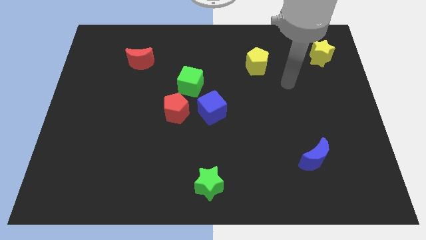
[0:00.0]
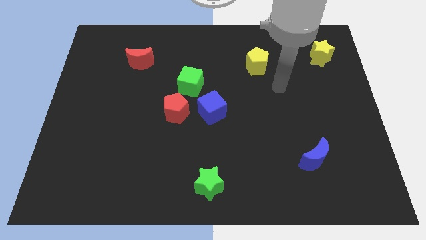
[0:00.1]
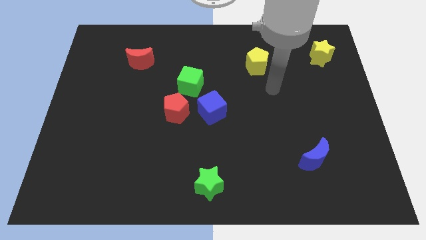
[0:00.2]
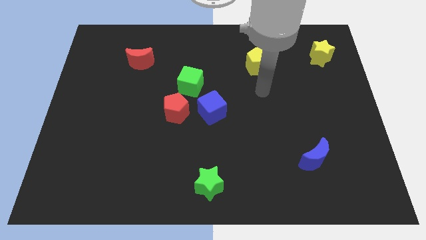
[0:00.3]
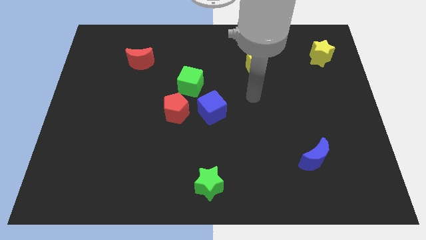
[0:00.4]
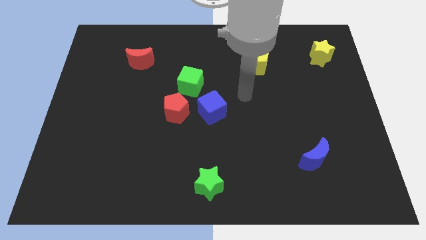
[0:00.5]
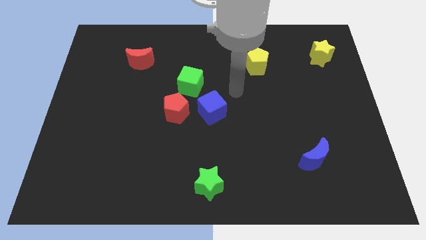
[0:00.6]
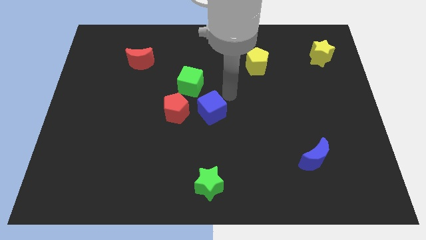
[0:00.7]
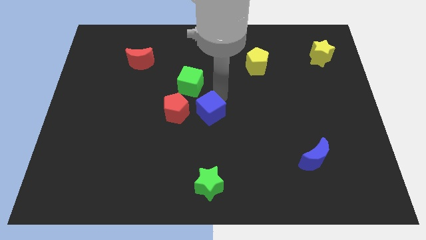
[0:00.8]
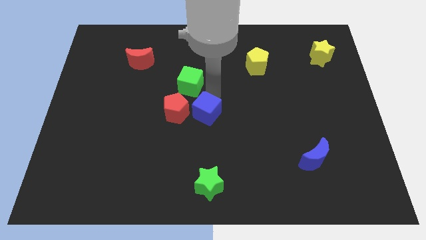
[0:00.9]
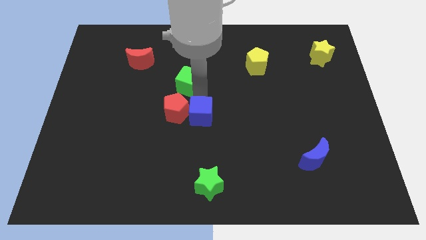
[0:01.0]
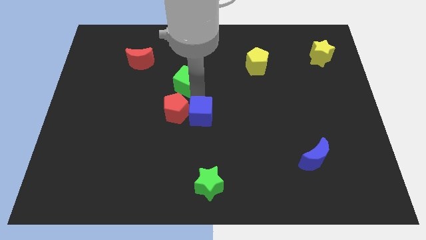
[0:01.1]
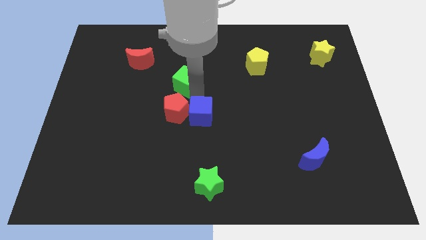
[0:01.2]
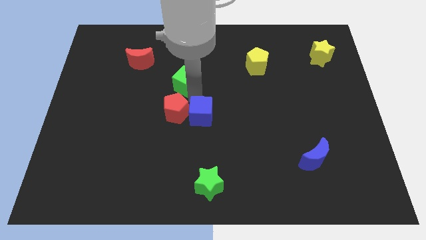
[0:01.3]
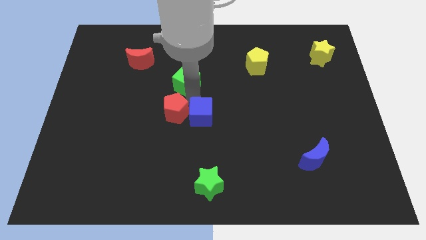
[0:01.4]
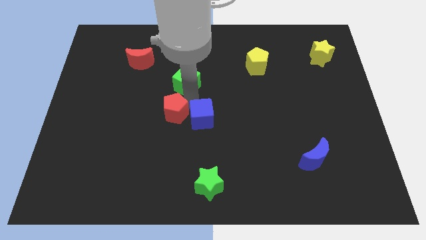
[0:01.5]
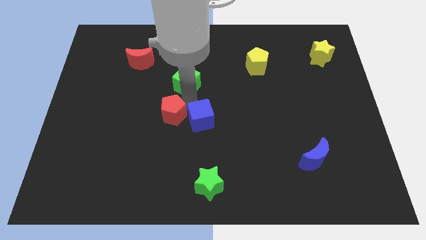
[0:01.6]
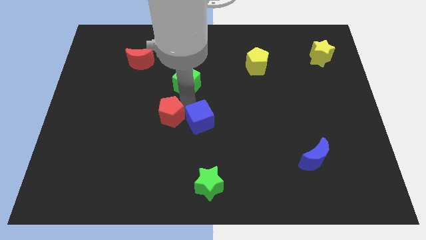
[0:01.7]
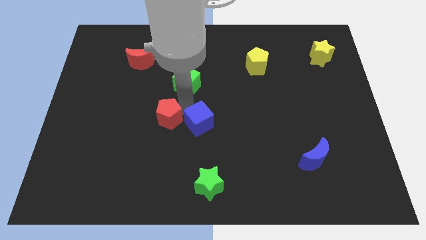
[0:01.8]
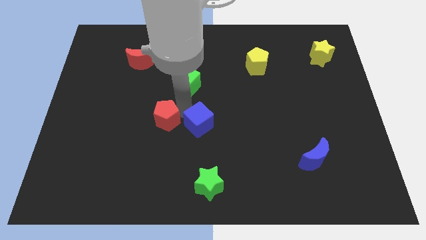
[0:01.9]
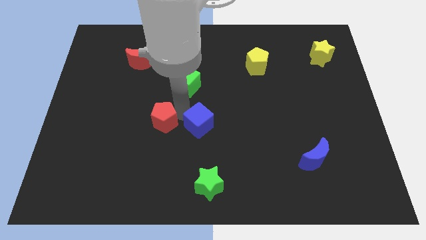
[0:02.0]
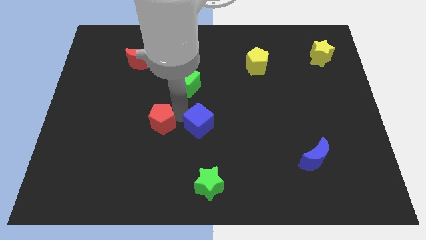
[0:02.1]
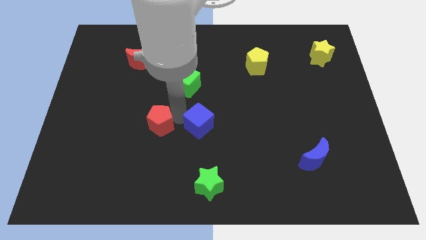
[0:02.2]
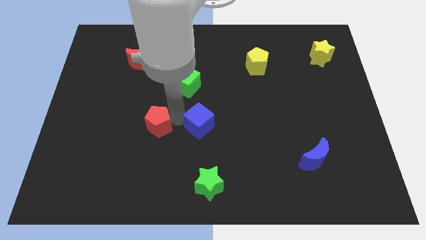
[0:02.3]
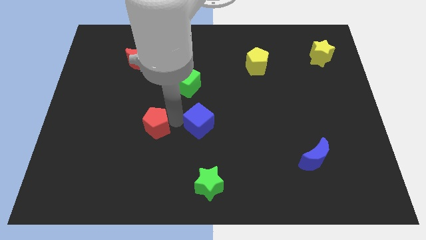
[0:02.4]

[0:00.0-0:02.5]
move the red pentagon away from the blue cube and green cube

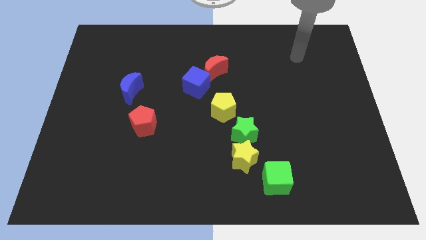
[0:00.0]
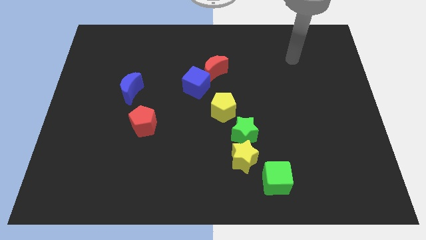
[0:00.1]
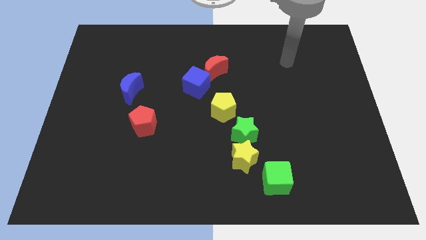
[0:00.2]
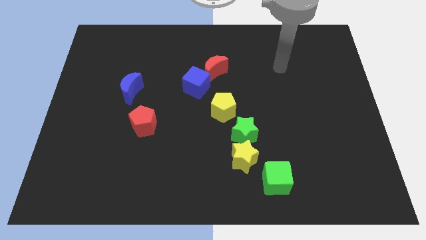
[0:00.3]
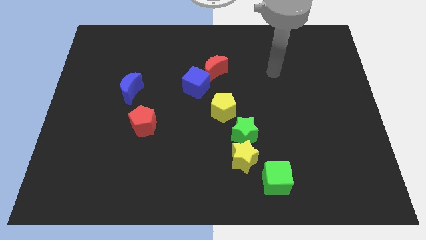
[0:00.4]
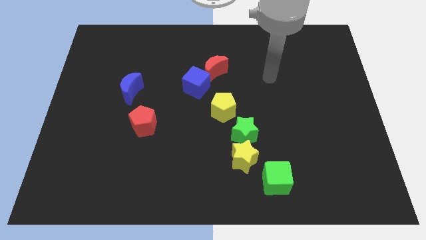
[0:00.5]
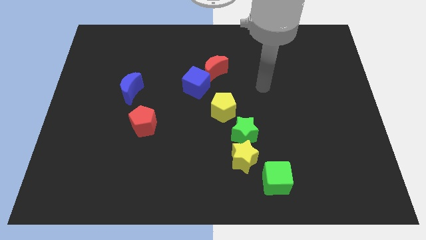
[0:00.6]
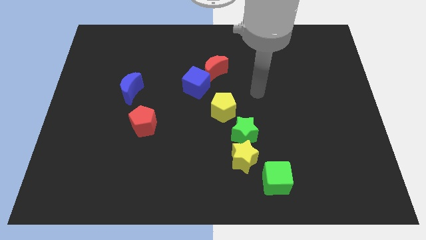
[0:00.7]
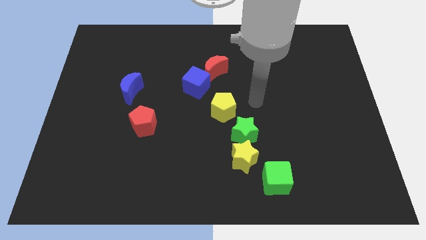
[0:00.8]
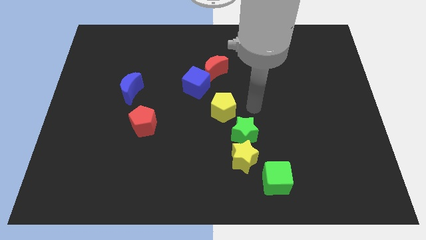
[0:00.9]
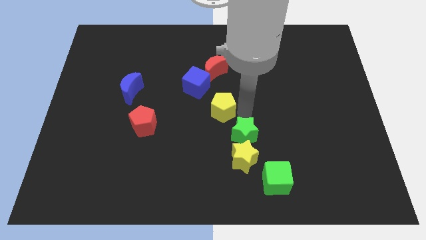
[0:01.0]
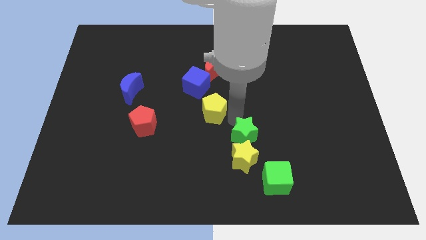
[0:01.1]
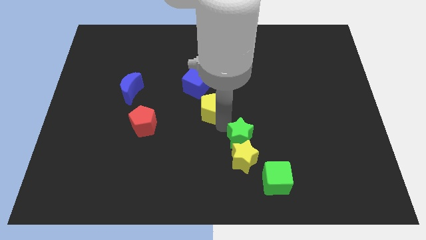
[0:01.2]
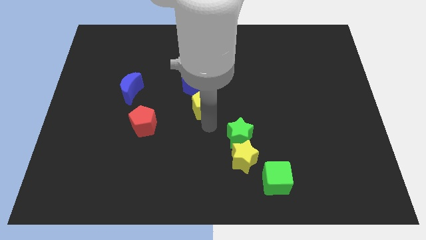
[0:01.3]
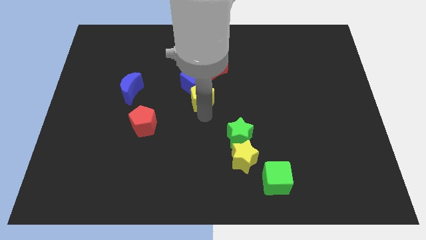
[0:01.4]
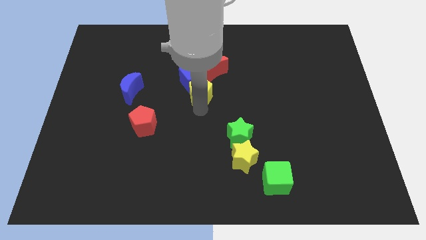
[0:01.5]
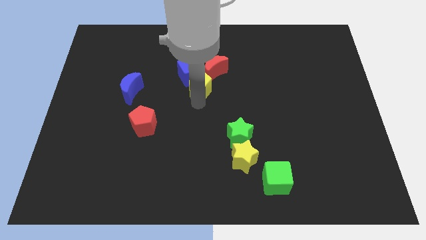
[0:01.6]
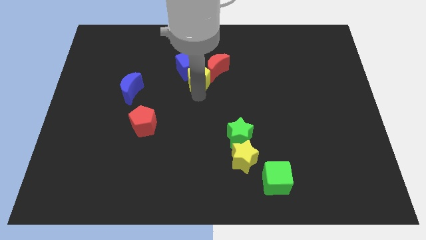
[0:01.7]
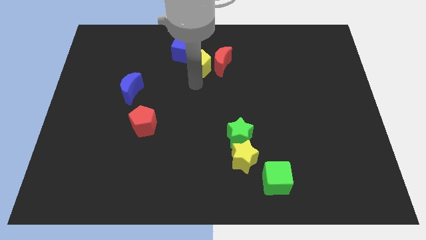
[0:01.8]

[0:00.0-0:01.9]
separate the red moon from the blue cube

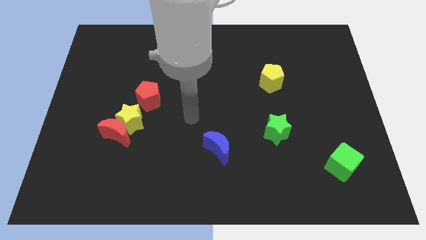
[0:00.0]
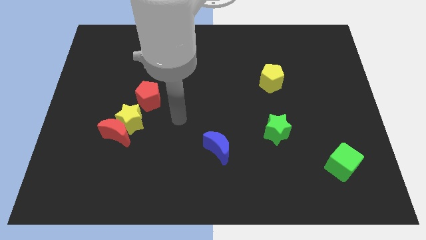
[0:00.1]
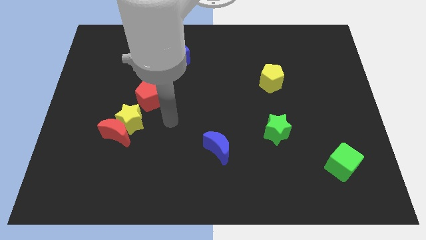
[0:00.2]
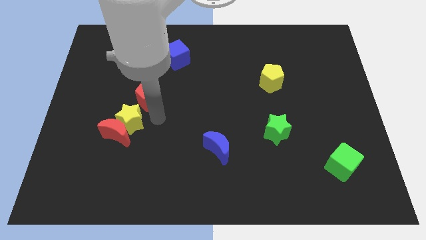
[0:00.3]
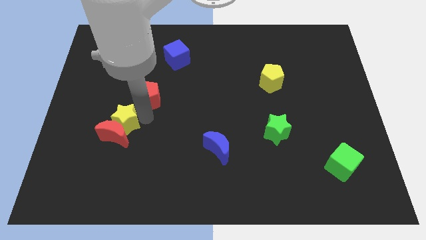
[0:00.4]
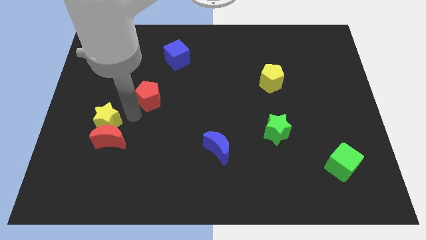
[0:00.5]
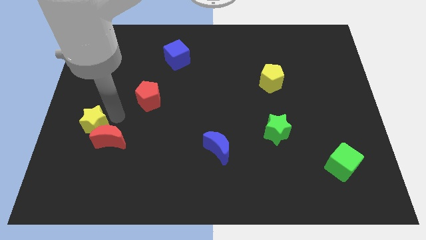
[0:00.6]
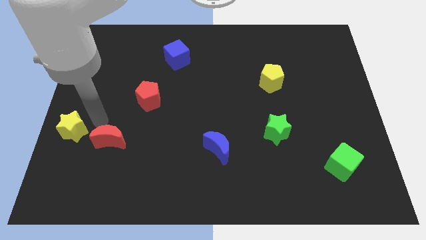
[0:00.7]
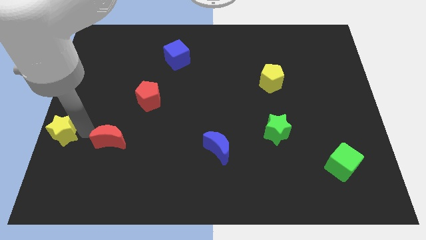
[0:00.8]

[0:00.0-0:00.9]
pull the red moon apart from the yellow star

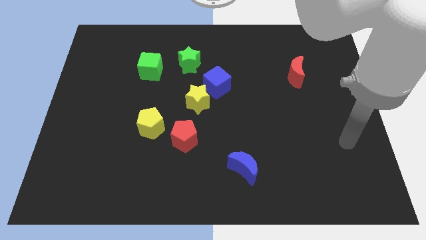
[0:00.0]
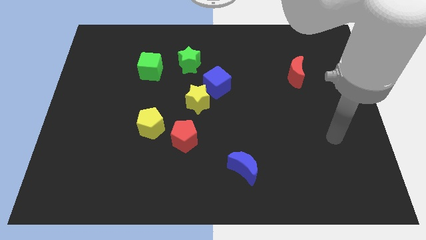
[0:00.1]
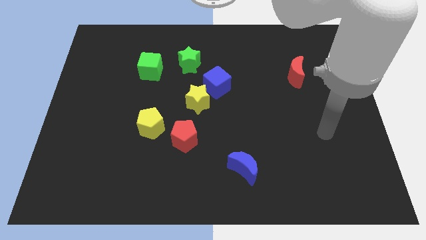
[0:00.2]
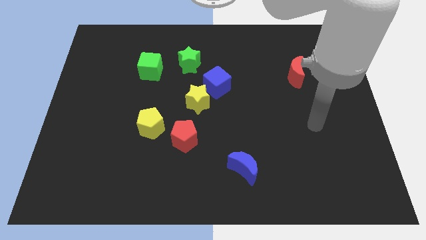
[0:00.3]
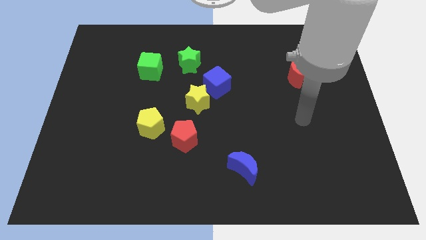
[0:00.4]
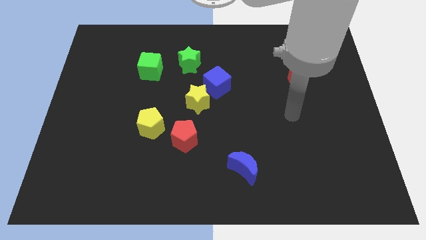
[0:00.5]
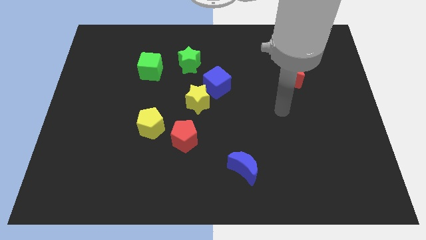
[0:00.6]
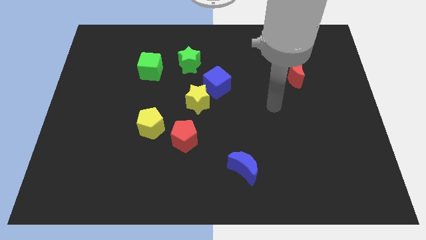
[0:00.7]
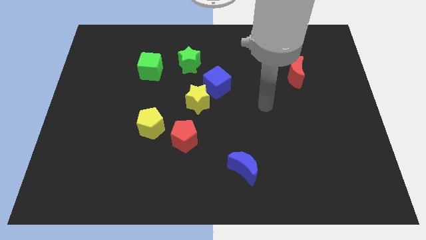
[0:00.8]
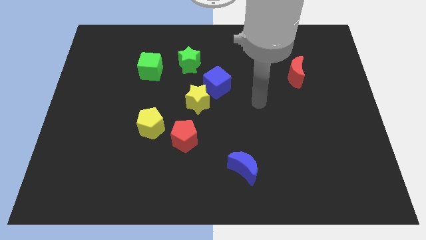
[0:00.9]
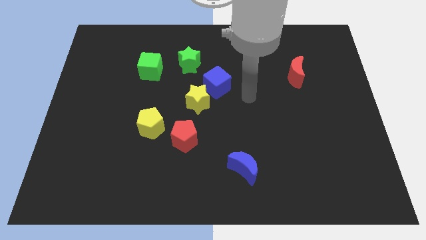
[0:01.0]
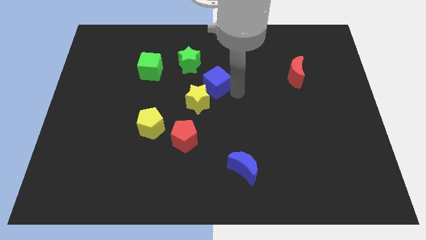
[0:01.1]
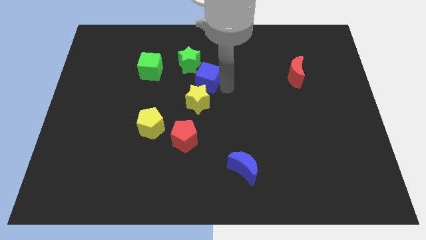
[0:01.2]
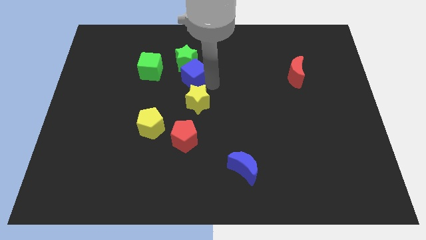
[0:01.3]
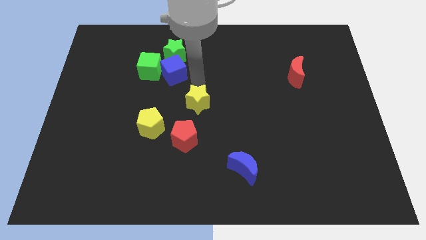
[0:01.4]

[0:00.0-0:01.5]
move the yellow star away from the blue cube

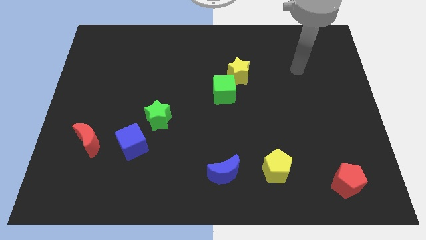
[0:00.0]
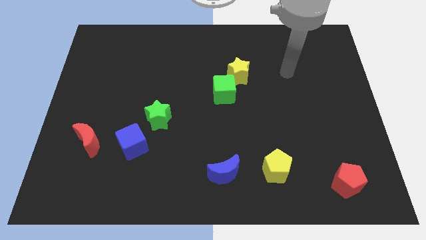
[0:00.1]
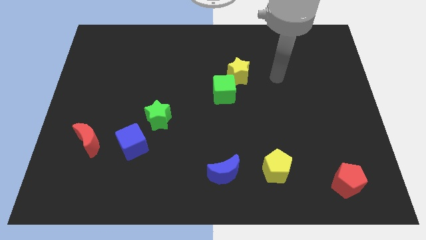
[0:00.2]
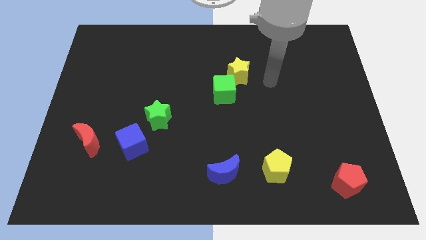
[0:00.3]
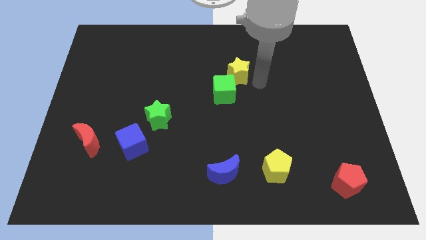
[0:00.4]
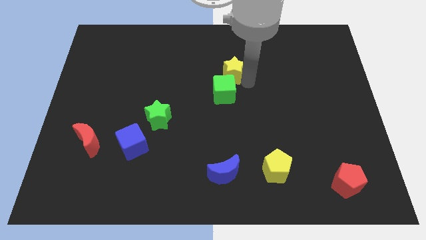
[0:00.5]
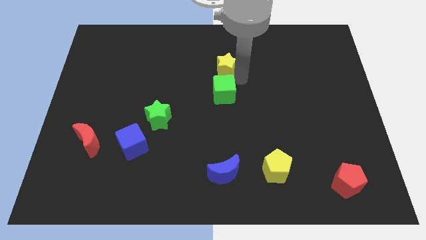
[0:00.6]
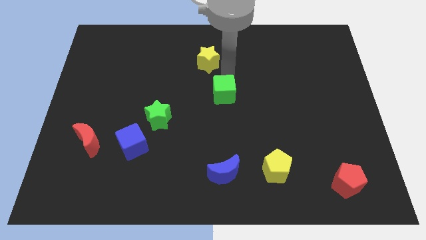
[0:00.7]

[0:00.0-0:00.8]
move the green cube away from the yellow star

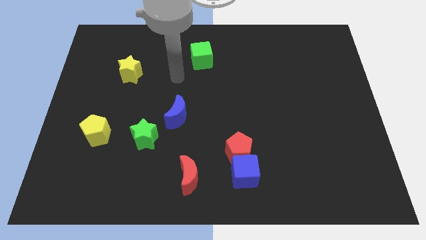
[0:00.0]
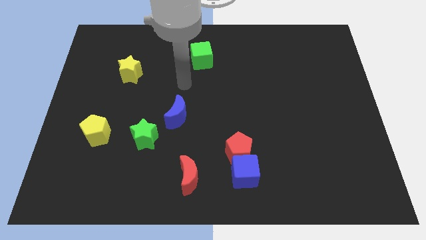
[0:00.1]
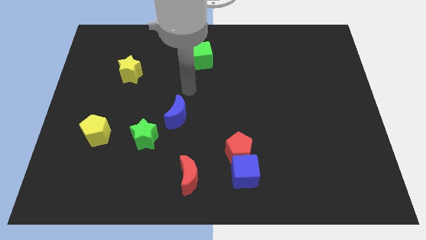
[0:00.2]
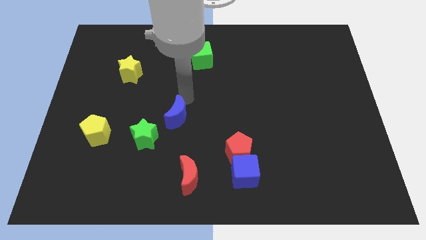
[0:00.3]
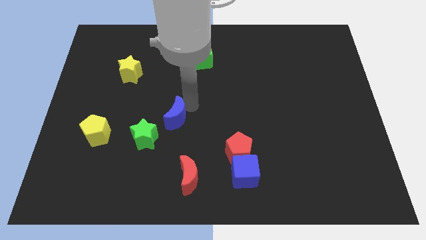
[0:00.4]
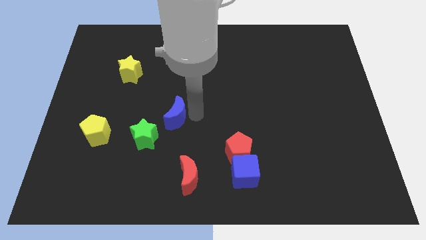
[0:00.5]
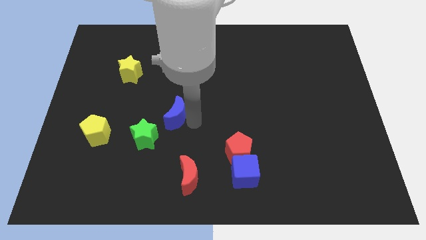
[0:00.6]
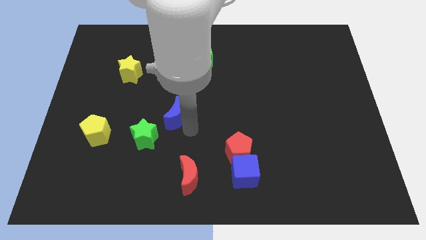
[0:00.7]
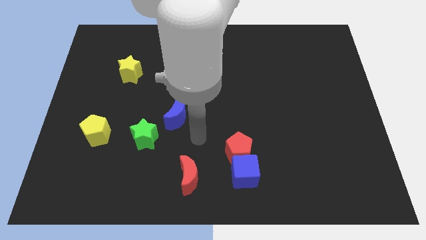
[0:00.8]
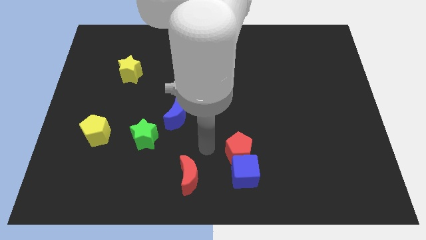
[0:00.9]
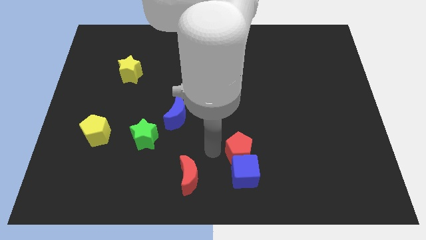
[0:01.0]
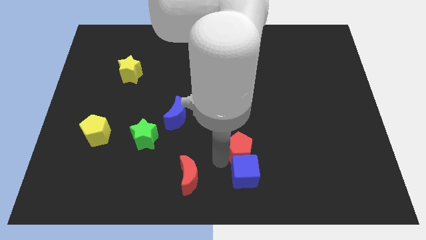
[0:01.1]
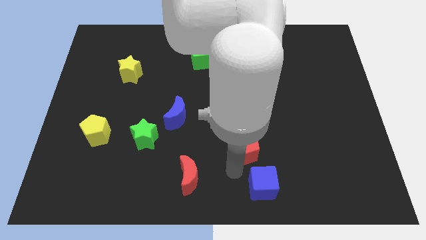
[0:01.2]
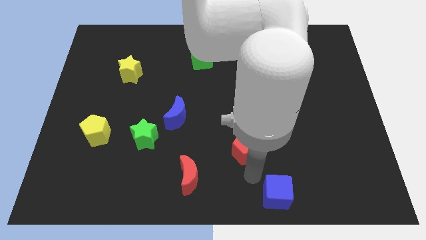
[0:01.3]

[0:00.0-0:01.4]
pull the red pentagon apart from the blue cube

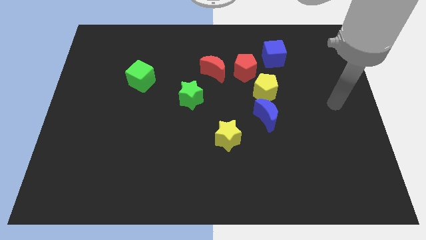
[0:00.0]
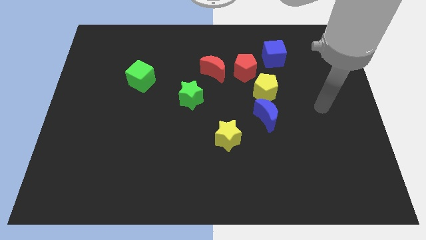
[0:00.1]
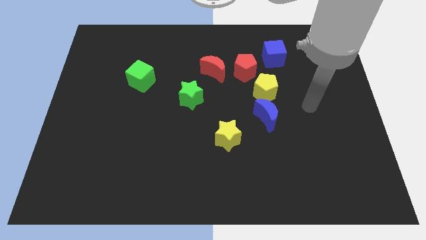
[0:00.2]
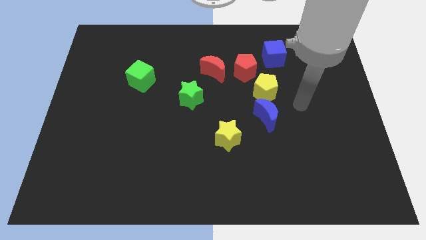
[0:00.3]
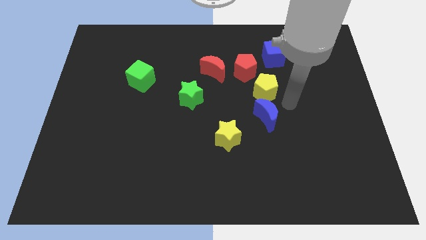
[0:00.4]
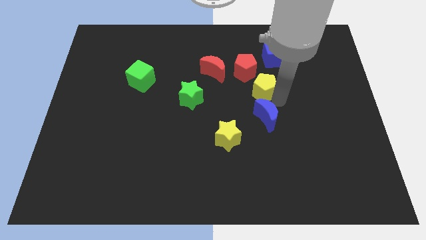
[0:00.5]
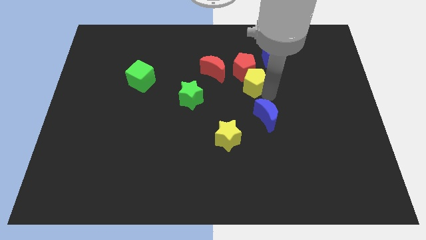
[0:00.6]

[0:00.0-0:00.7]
move the blue moon away from the yellow pentagon
